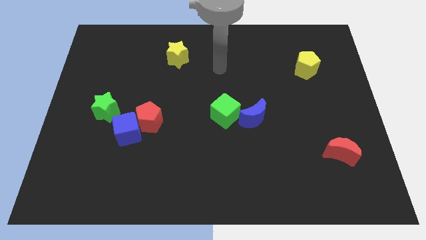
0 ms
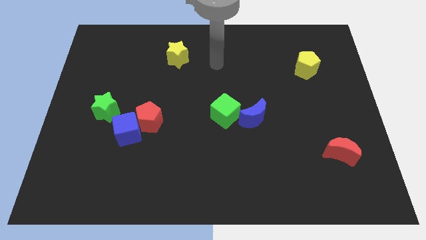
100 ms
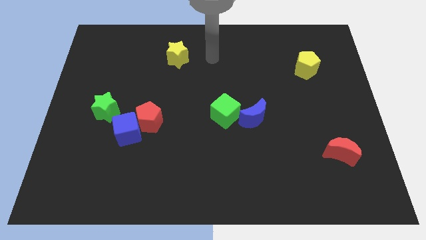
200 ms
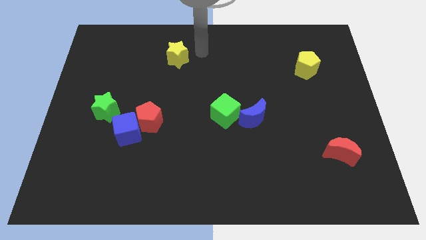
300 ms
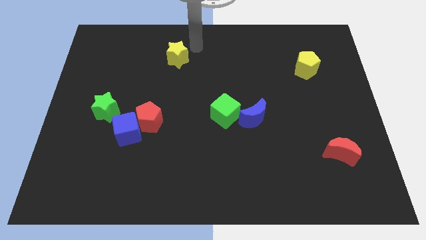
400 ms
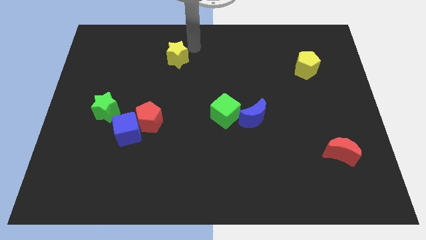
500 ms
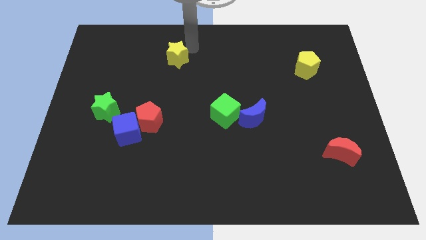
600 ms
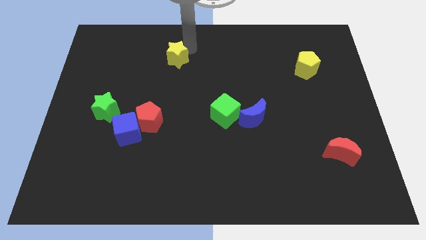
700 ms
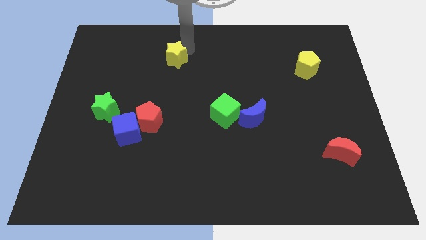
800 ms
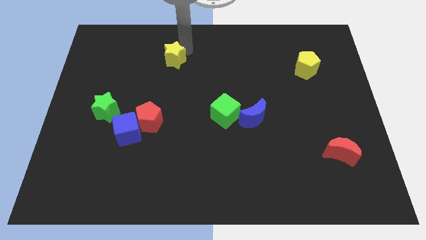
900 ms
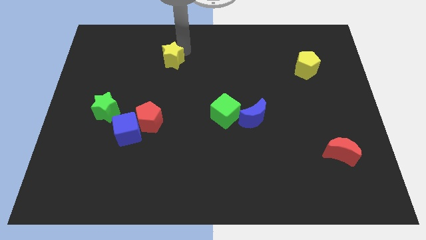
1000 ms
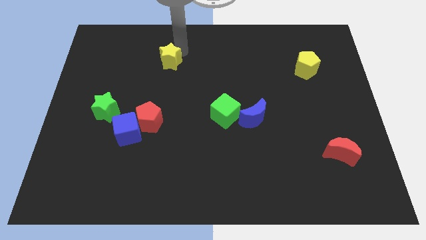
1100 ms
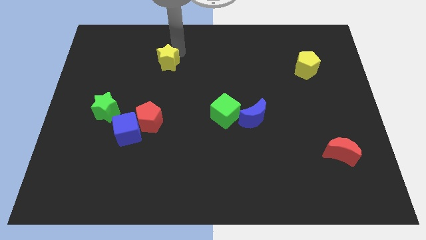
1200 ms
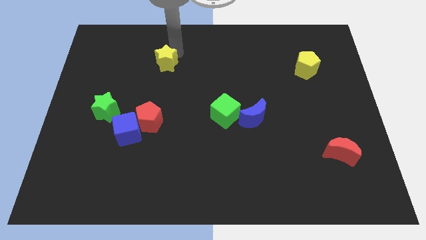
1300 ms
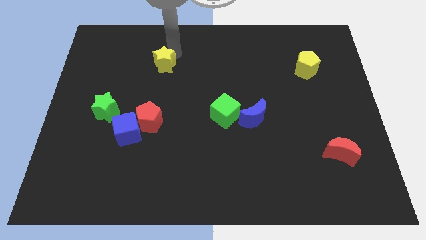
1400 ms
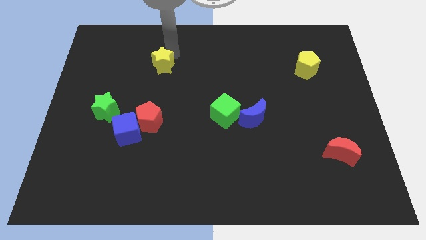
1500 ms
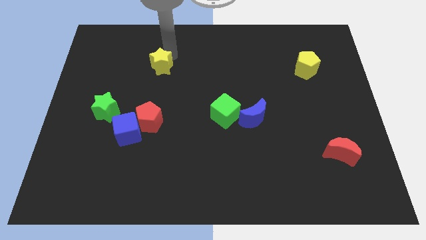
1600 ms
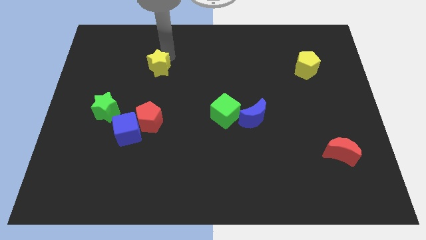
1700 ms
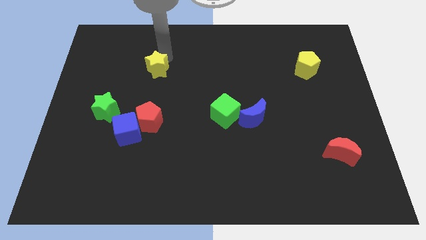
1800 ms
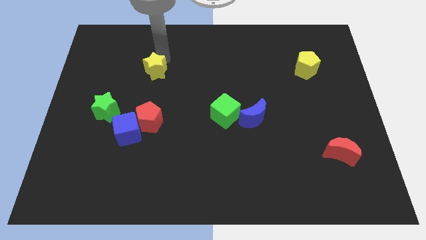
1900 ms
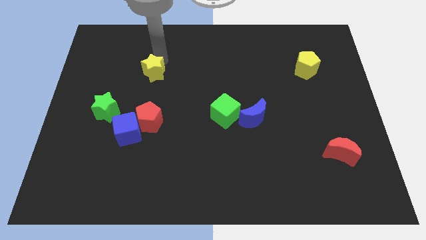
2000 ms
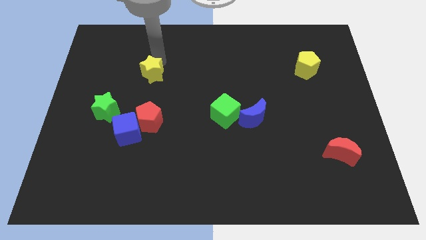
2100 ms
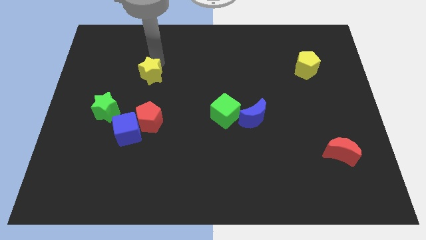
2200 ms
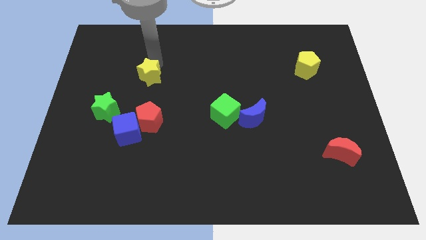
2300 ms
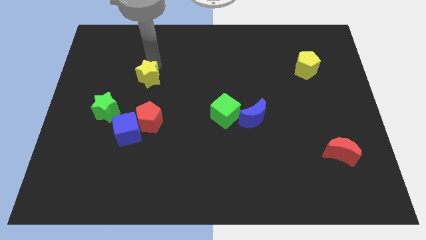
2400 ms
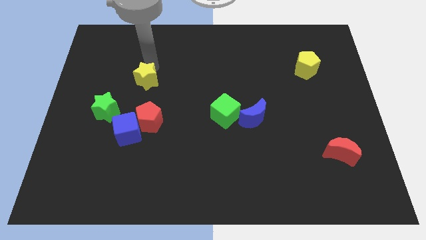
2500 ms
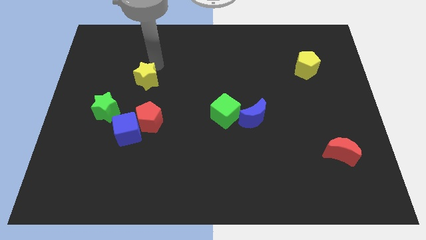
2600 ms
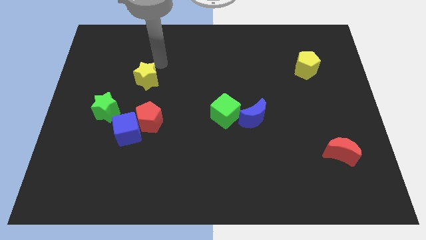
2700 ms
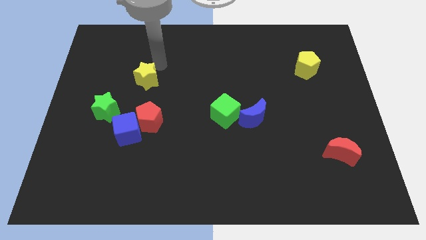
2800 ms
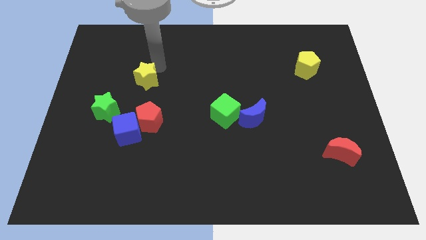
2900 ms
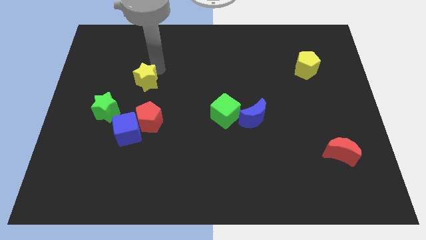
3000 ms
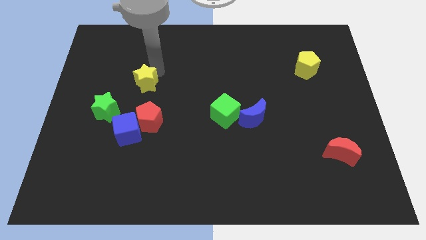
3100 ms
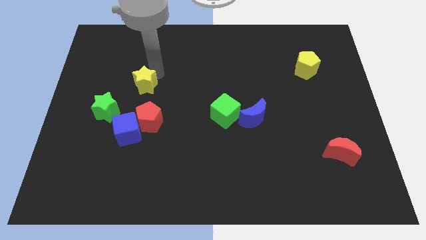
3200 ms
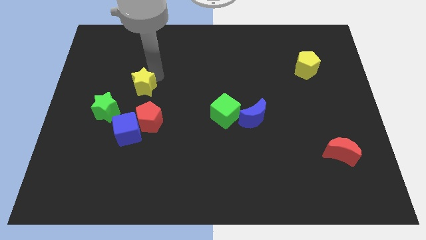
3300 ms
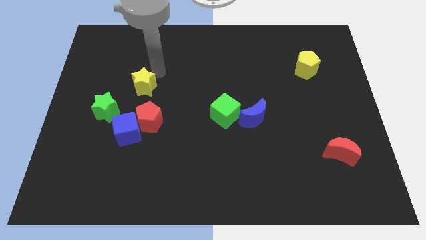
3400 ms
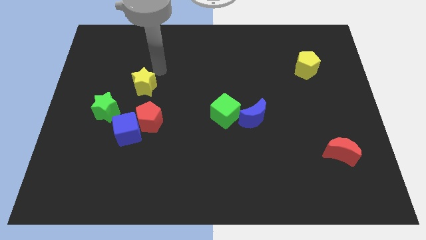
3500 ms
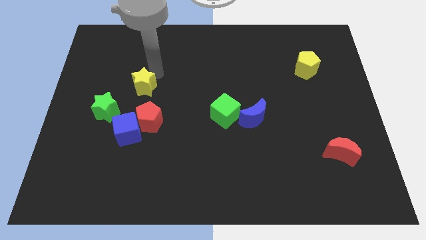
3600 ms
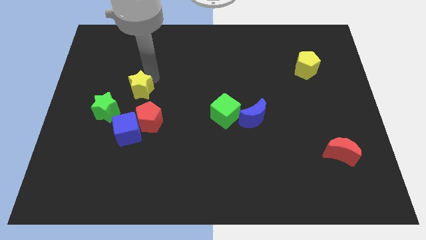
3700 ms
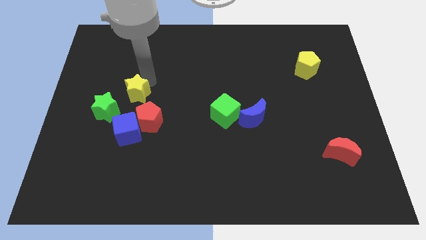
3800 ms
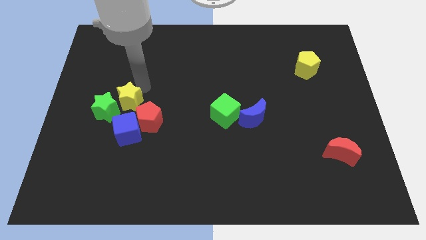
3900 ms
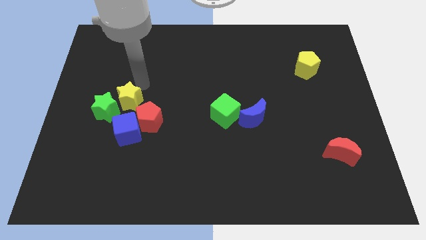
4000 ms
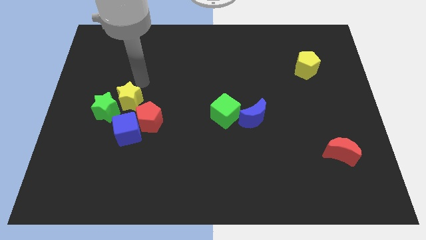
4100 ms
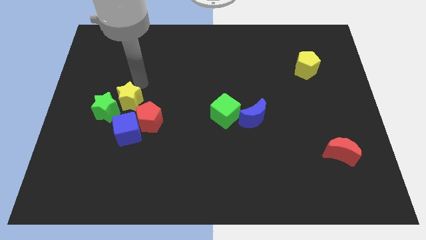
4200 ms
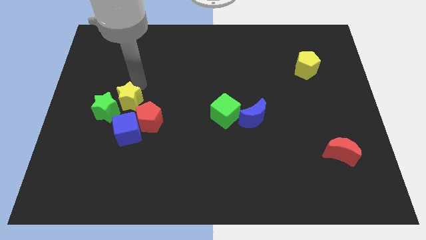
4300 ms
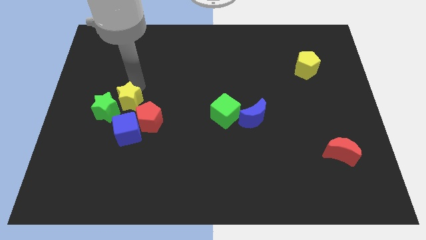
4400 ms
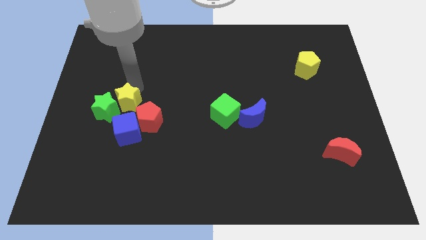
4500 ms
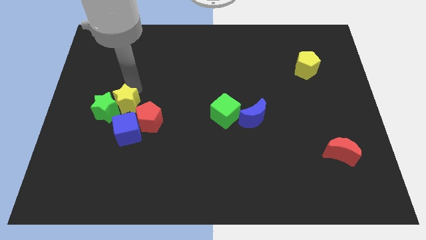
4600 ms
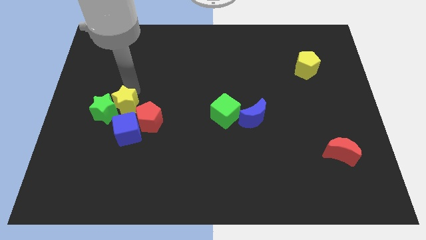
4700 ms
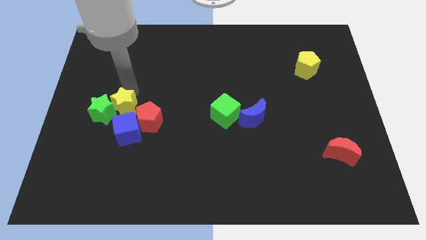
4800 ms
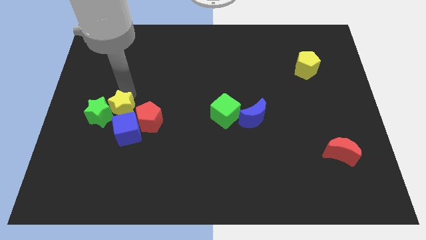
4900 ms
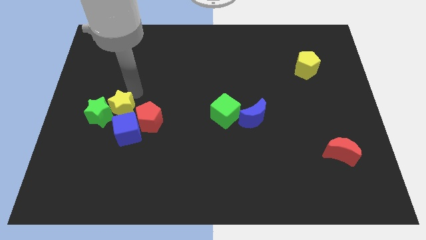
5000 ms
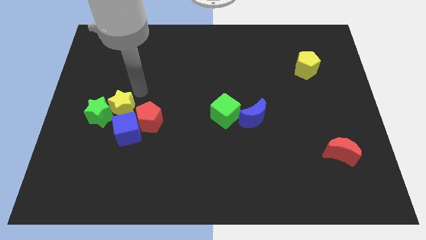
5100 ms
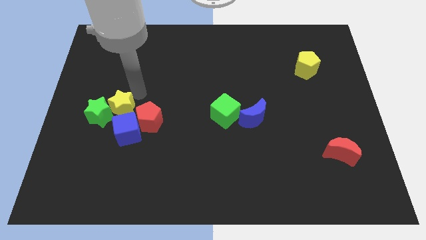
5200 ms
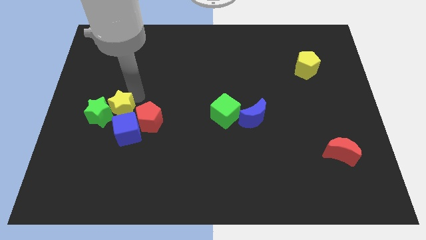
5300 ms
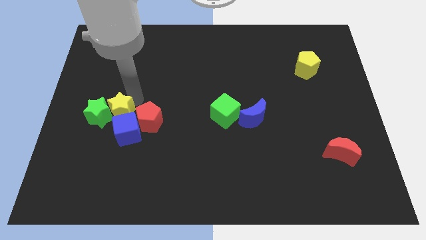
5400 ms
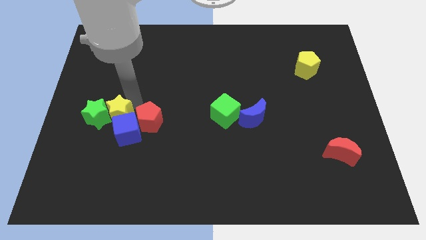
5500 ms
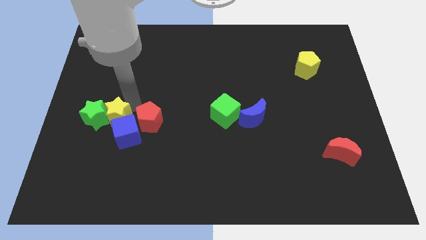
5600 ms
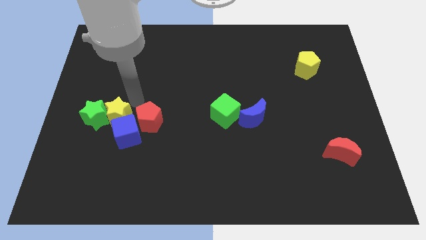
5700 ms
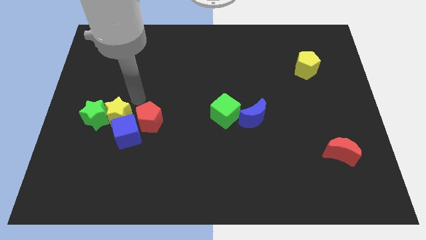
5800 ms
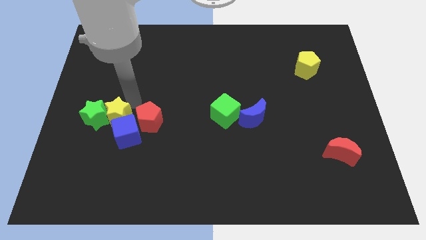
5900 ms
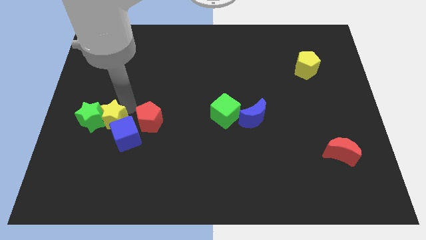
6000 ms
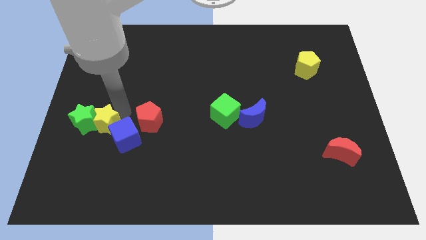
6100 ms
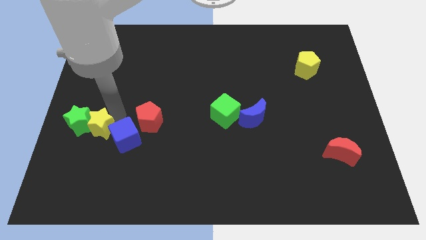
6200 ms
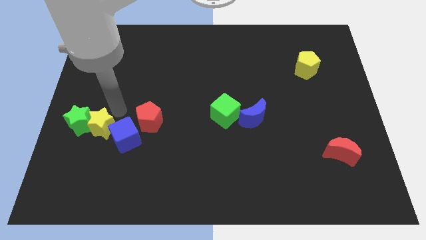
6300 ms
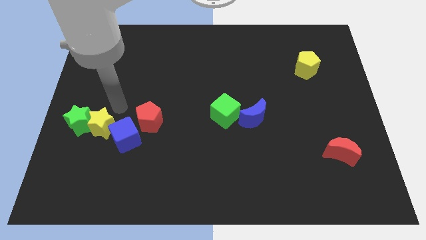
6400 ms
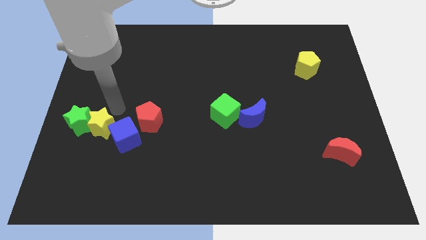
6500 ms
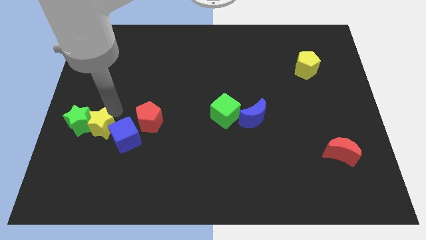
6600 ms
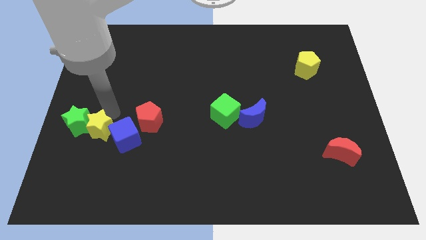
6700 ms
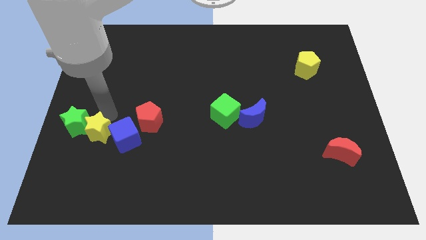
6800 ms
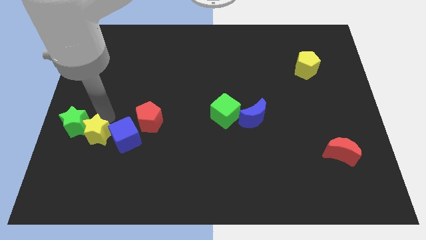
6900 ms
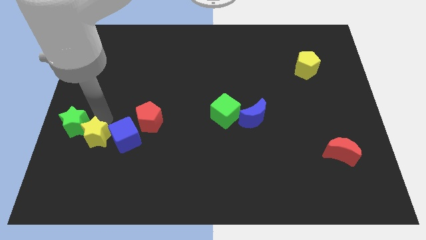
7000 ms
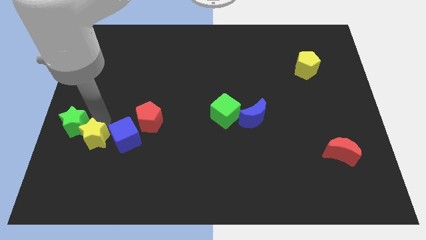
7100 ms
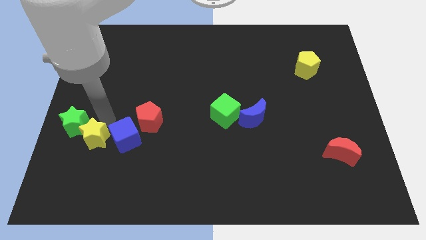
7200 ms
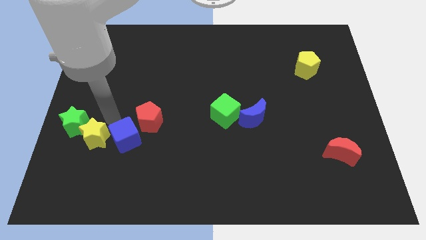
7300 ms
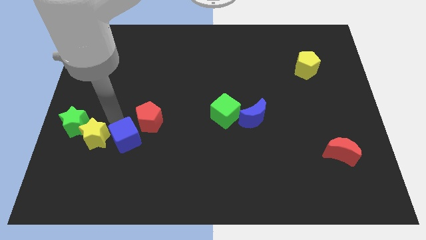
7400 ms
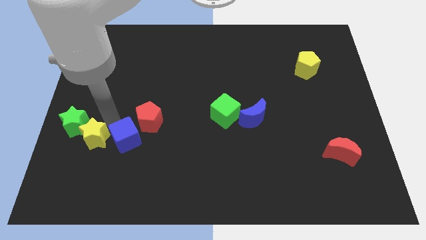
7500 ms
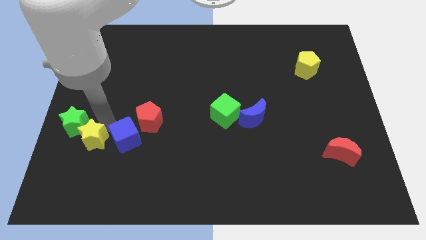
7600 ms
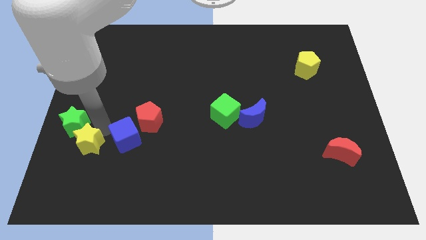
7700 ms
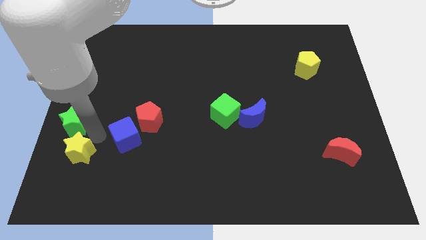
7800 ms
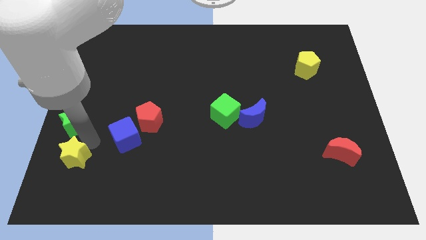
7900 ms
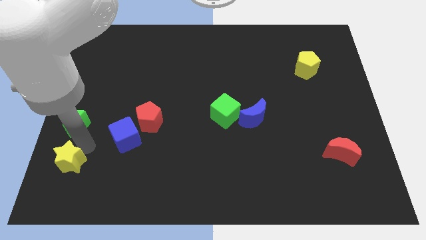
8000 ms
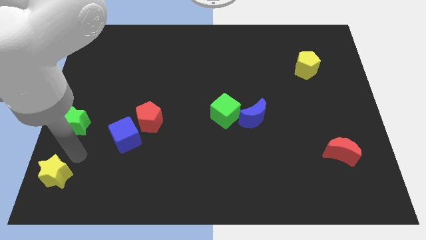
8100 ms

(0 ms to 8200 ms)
slide the yellow star to the lower left corner
